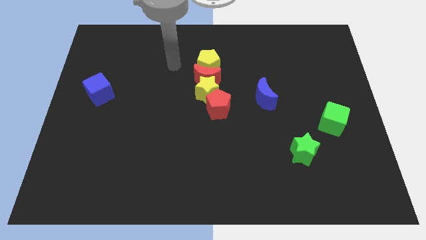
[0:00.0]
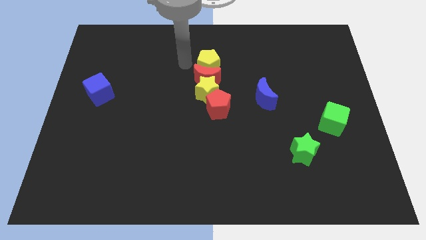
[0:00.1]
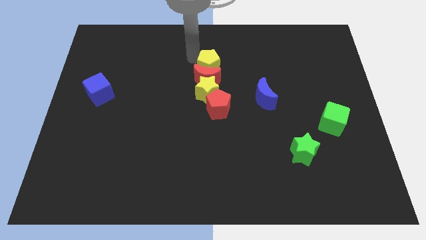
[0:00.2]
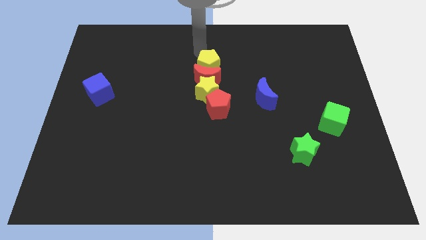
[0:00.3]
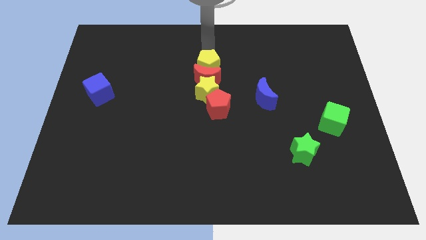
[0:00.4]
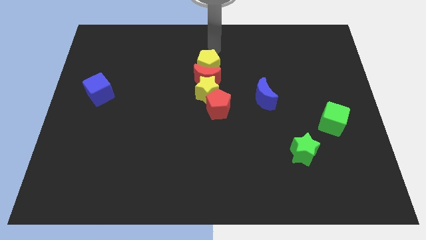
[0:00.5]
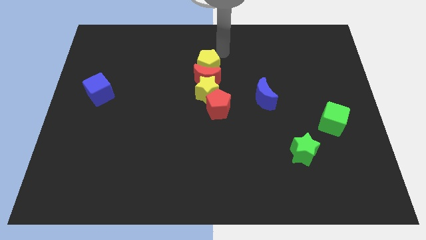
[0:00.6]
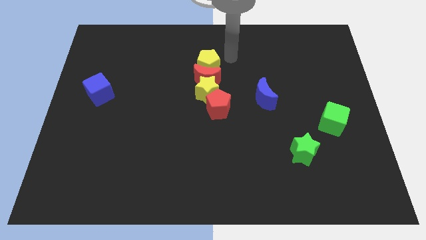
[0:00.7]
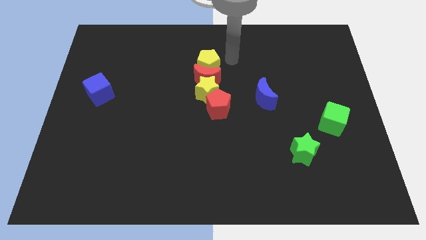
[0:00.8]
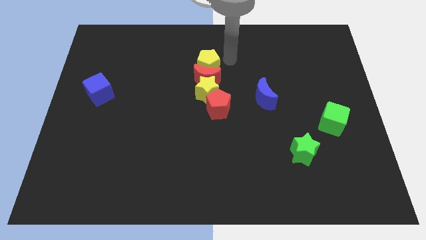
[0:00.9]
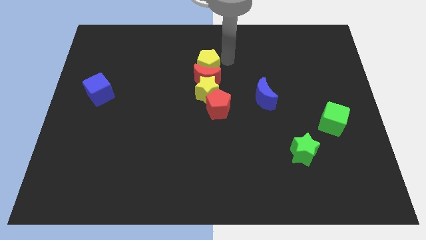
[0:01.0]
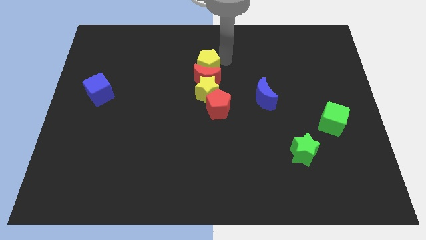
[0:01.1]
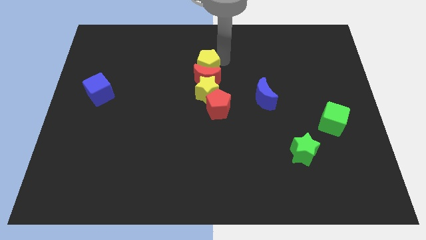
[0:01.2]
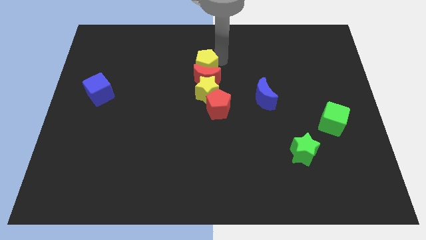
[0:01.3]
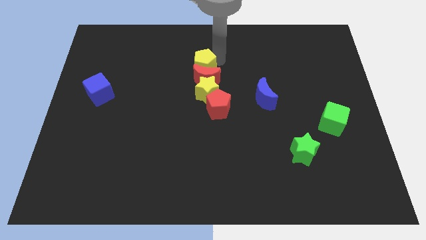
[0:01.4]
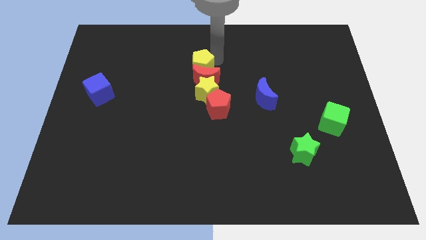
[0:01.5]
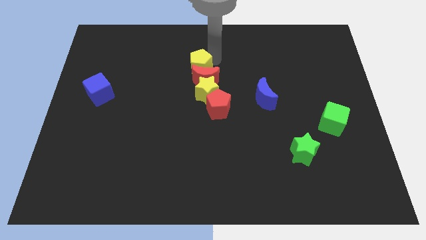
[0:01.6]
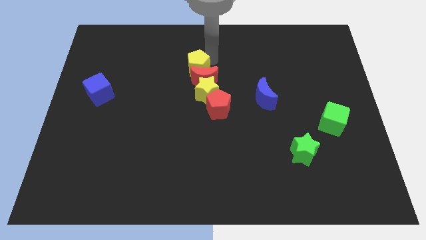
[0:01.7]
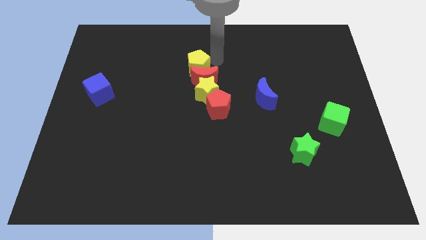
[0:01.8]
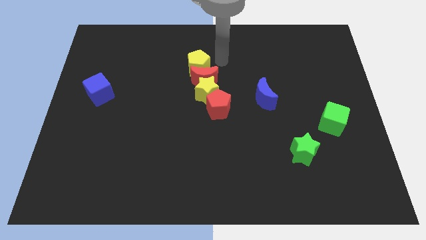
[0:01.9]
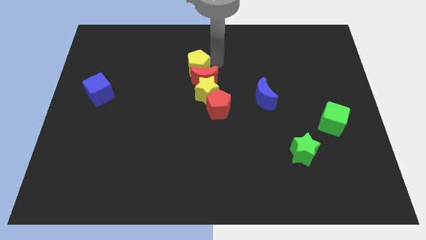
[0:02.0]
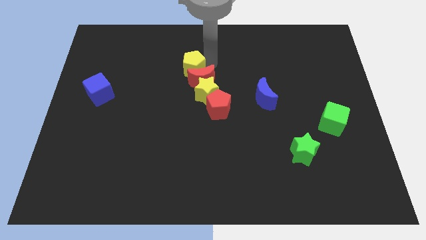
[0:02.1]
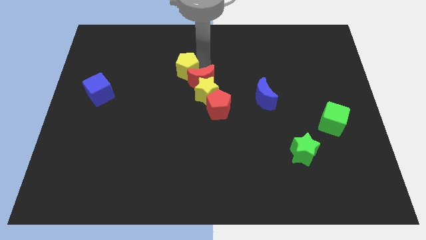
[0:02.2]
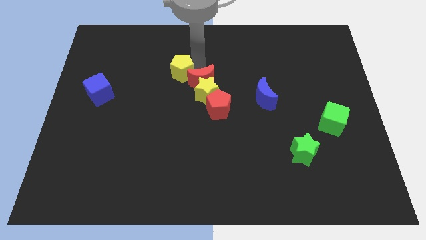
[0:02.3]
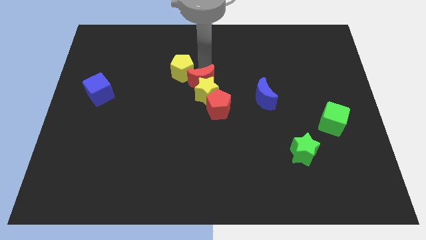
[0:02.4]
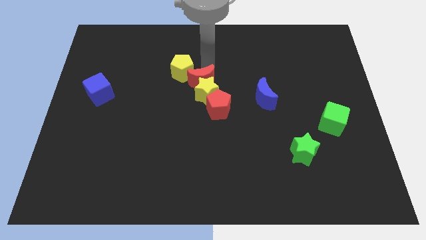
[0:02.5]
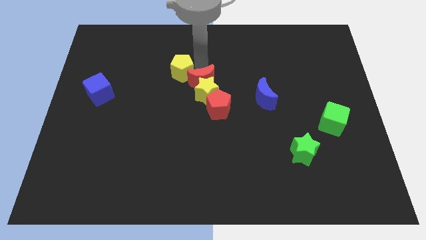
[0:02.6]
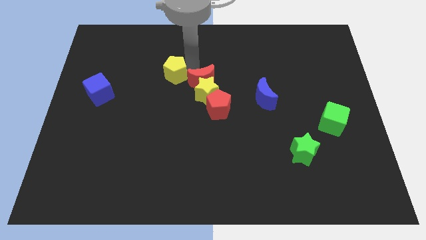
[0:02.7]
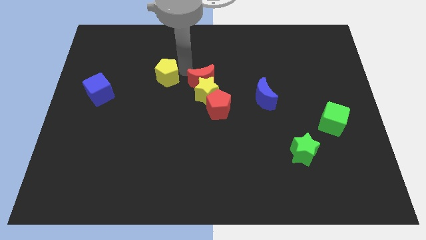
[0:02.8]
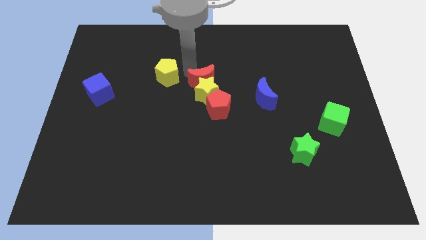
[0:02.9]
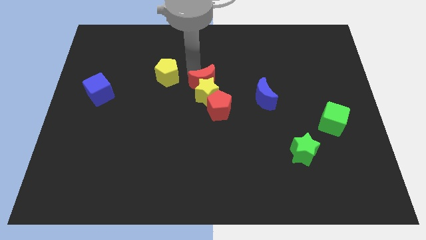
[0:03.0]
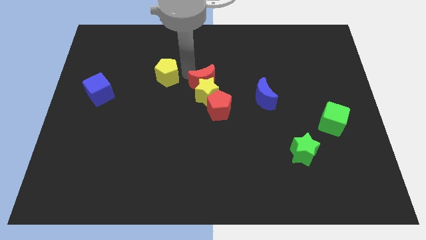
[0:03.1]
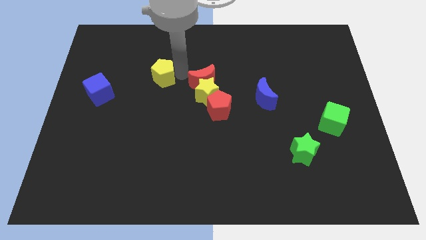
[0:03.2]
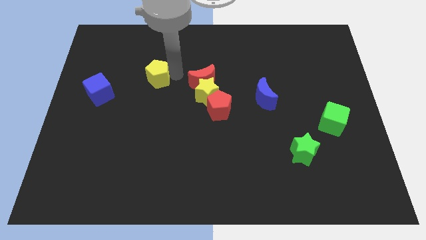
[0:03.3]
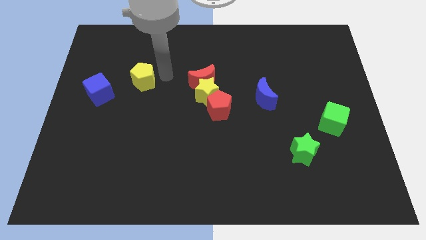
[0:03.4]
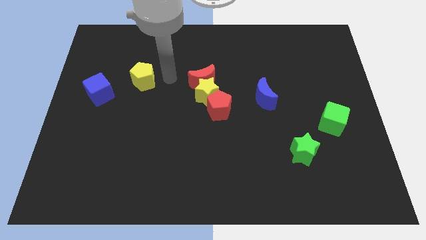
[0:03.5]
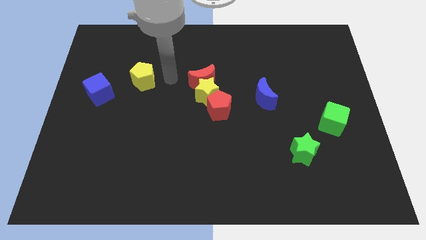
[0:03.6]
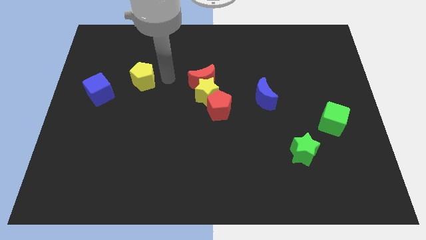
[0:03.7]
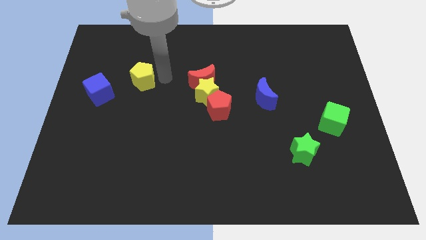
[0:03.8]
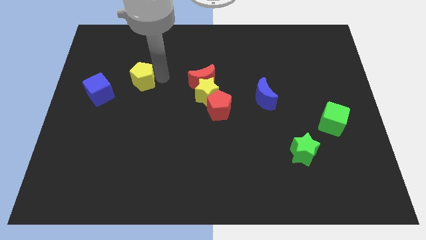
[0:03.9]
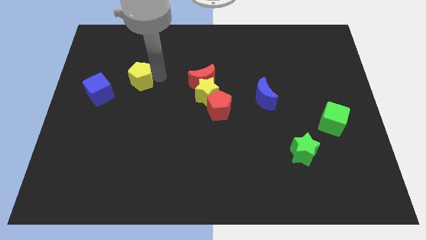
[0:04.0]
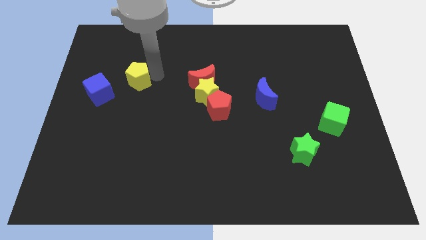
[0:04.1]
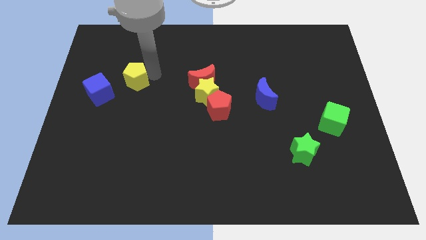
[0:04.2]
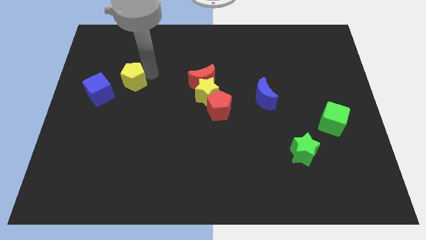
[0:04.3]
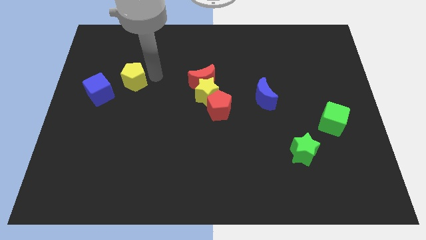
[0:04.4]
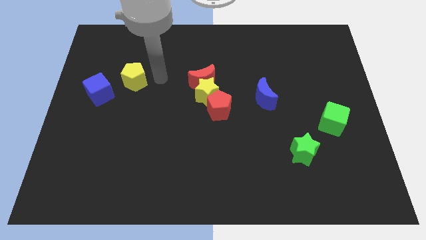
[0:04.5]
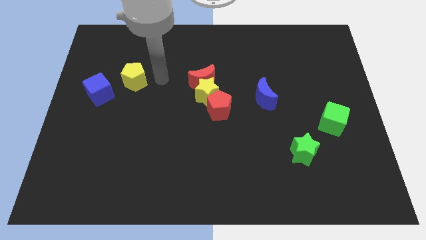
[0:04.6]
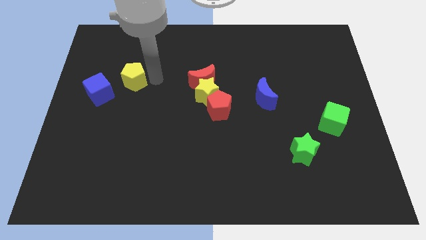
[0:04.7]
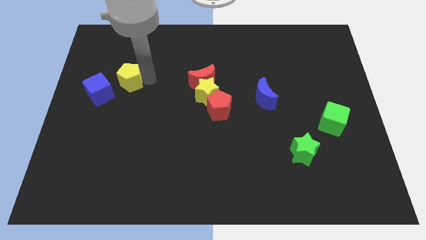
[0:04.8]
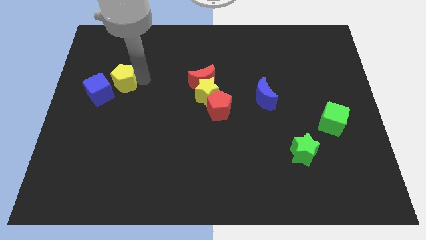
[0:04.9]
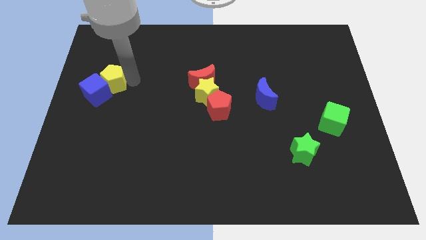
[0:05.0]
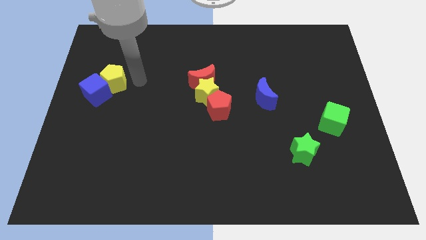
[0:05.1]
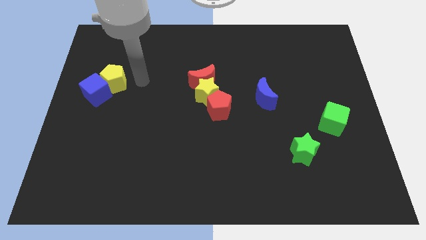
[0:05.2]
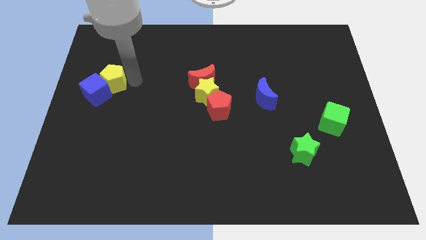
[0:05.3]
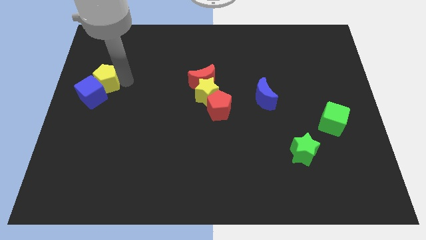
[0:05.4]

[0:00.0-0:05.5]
push the yellow pentagon to the left side
